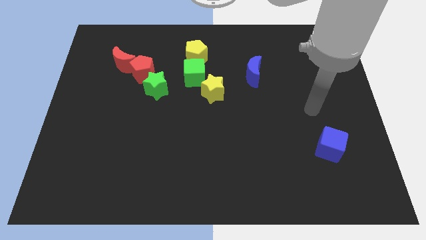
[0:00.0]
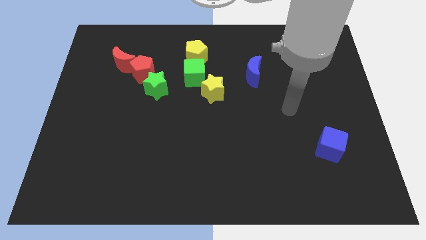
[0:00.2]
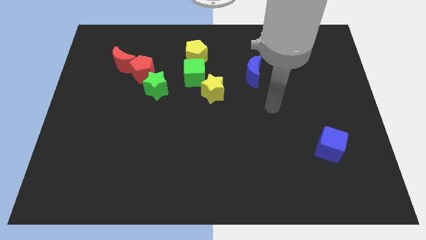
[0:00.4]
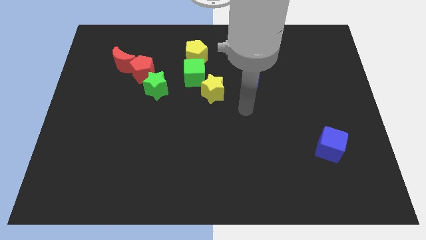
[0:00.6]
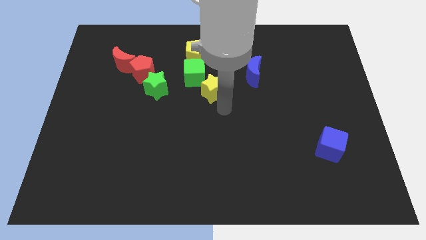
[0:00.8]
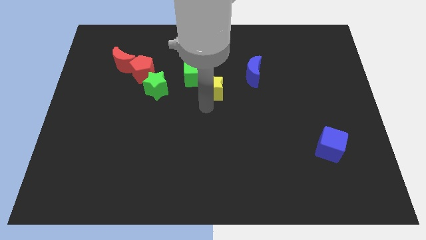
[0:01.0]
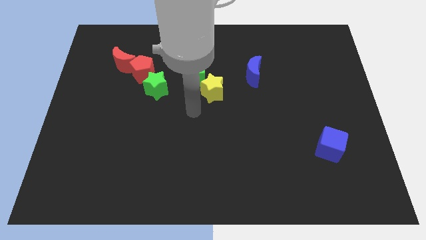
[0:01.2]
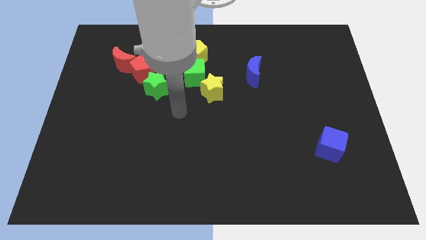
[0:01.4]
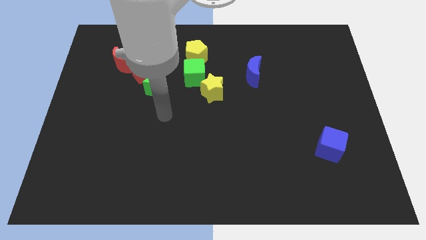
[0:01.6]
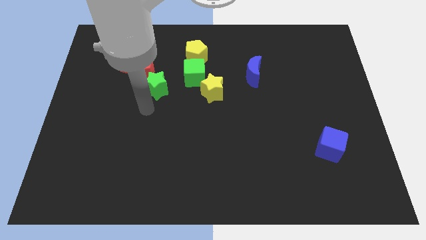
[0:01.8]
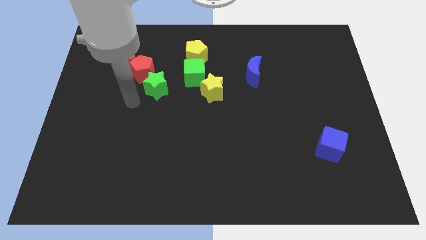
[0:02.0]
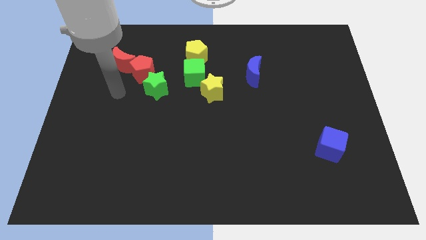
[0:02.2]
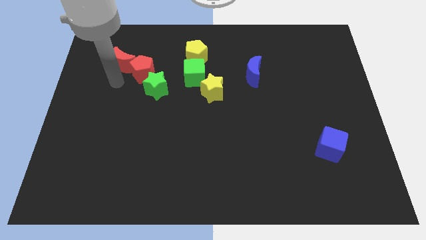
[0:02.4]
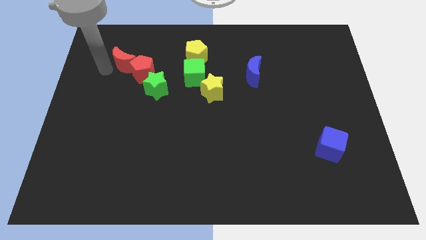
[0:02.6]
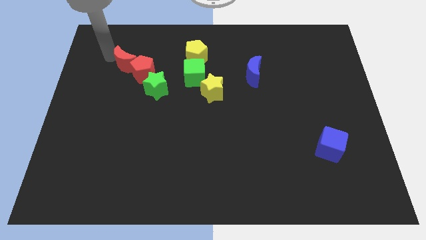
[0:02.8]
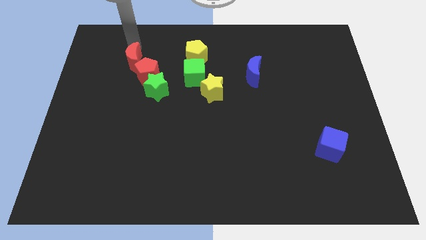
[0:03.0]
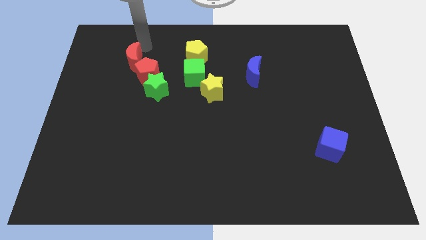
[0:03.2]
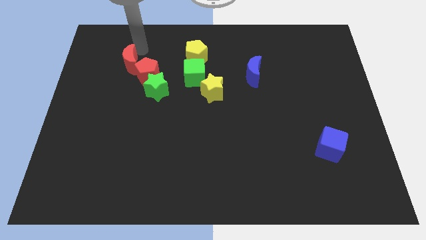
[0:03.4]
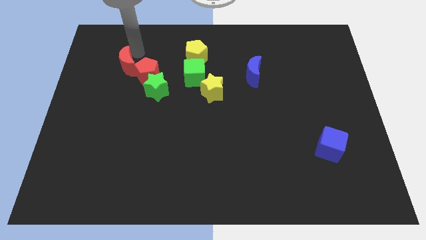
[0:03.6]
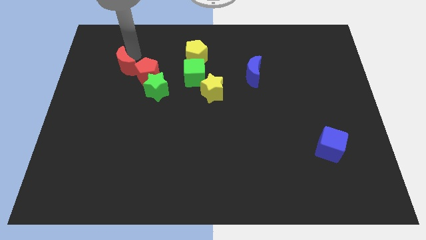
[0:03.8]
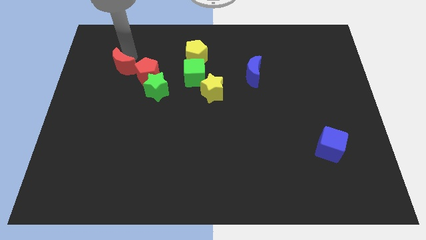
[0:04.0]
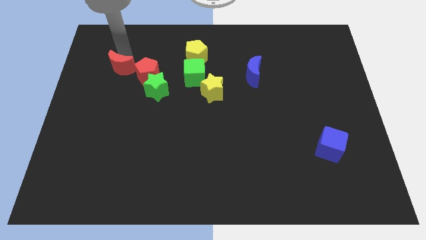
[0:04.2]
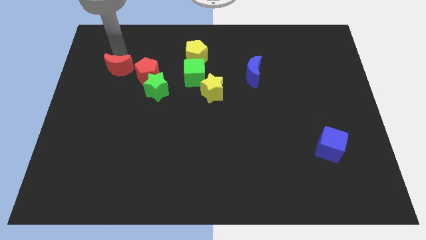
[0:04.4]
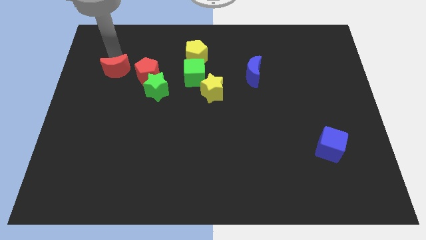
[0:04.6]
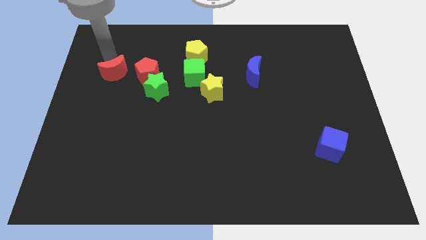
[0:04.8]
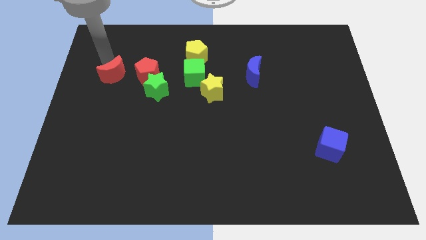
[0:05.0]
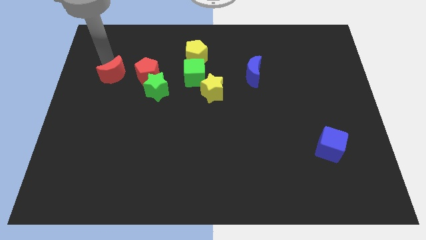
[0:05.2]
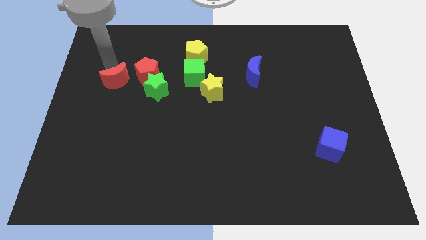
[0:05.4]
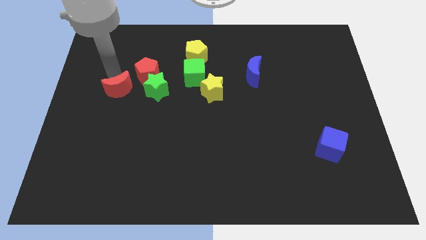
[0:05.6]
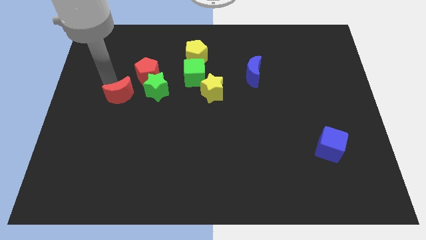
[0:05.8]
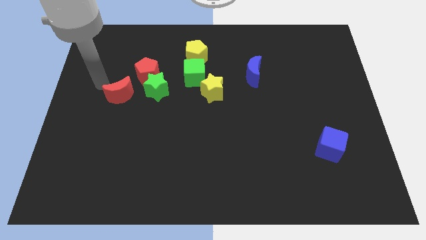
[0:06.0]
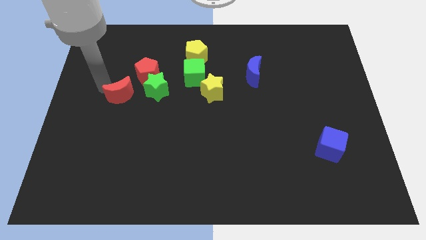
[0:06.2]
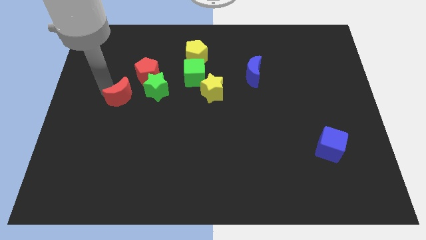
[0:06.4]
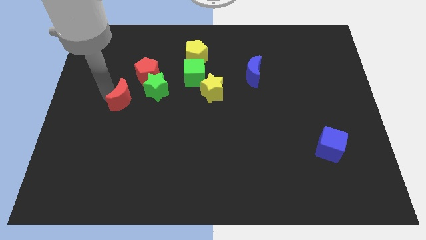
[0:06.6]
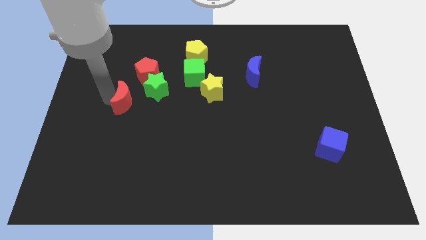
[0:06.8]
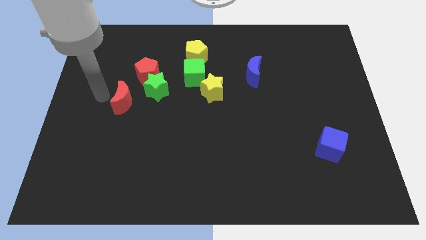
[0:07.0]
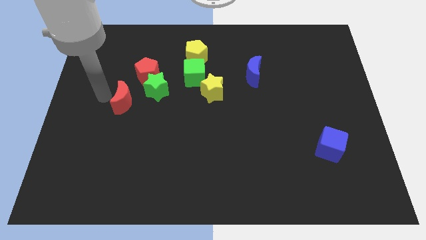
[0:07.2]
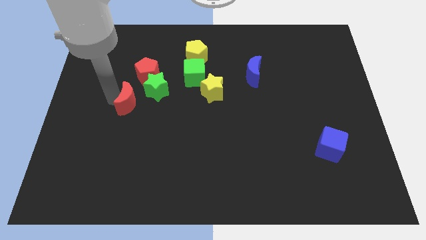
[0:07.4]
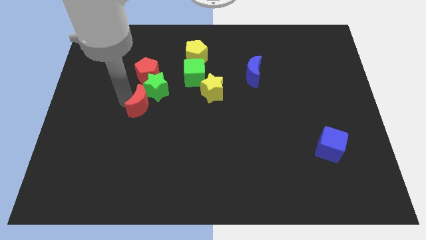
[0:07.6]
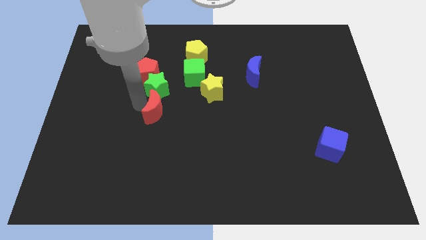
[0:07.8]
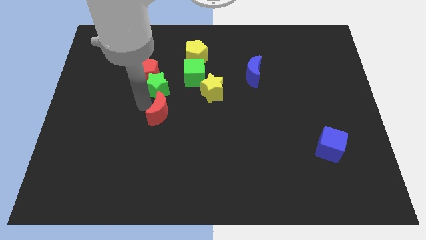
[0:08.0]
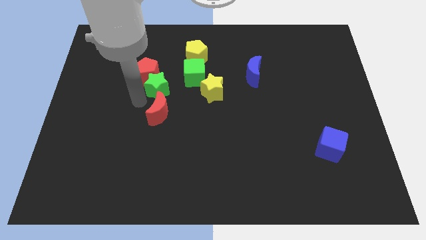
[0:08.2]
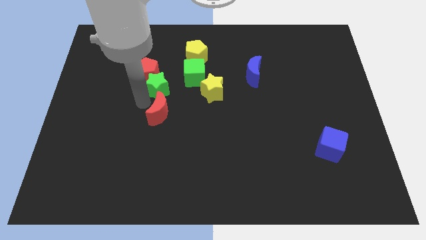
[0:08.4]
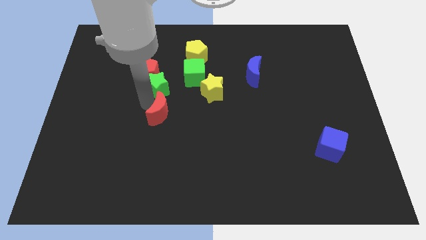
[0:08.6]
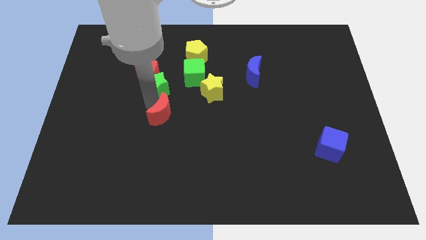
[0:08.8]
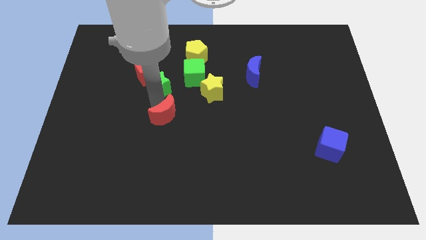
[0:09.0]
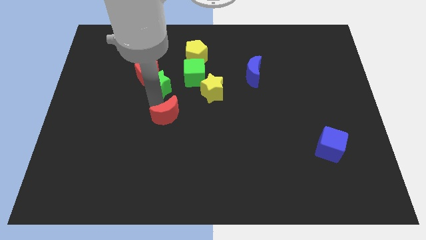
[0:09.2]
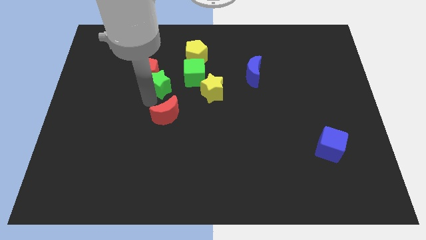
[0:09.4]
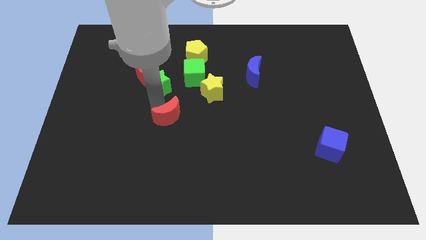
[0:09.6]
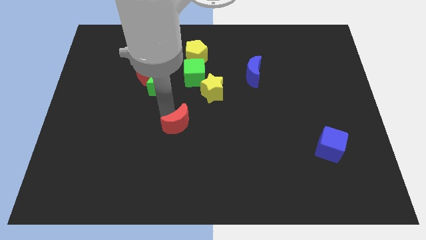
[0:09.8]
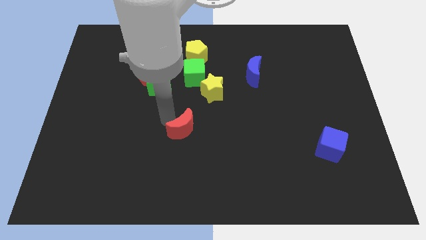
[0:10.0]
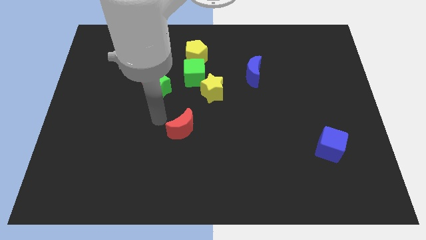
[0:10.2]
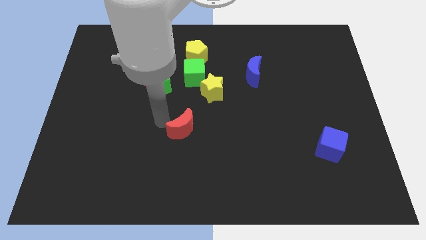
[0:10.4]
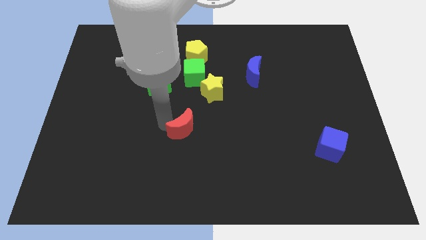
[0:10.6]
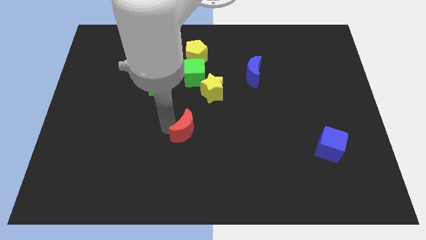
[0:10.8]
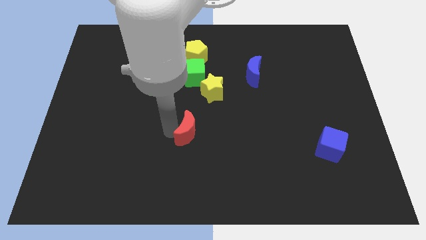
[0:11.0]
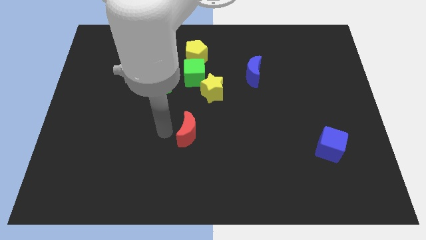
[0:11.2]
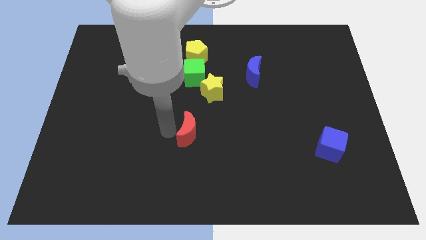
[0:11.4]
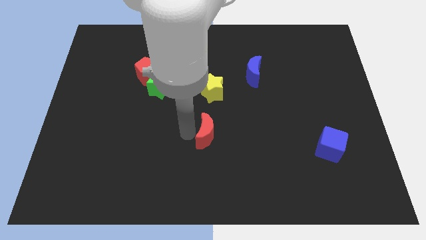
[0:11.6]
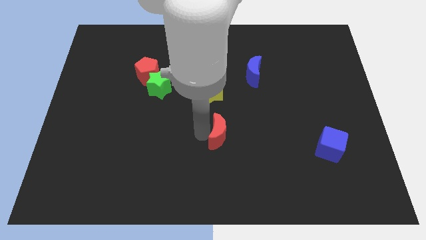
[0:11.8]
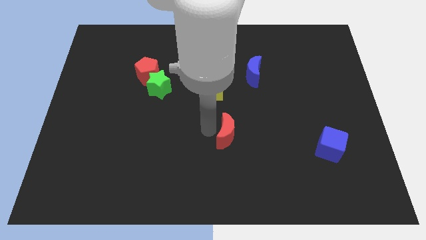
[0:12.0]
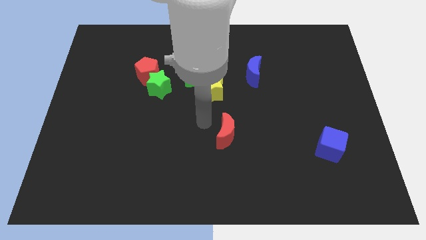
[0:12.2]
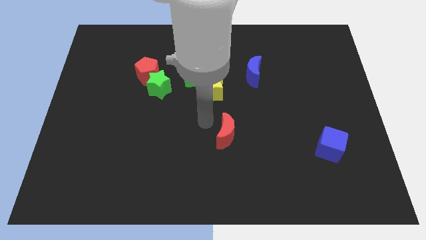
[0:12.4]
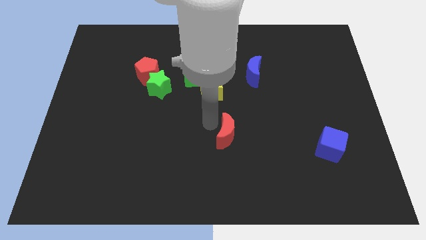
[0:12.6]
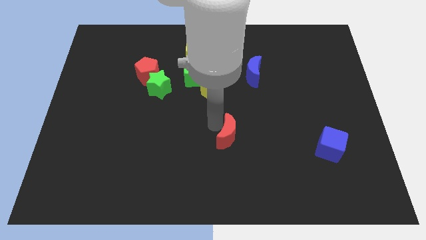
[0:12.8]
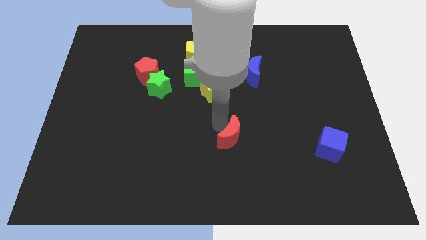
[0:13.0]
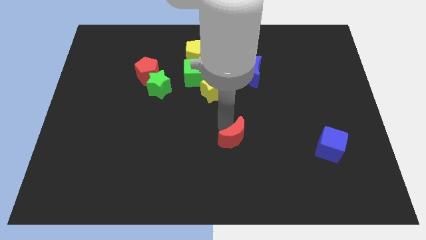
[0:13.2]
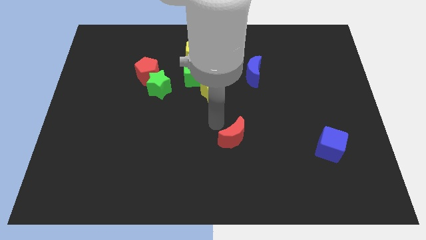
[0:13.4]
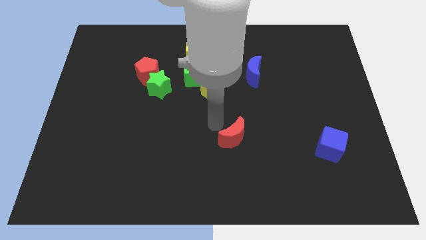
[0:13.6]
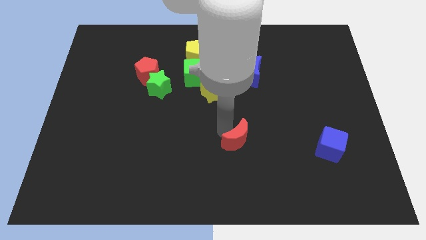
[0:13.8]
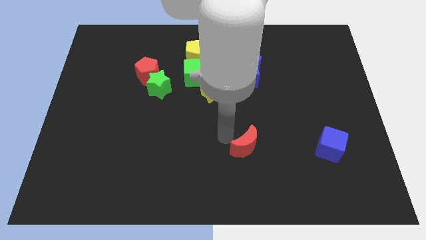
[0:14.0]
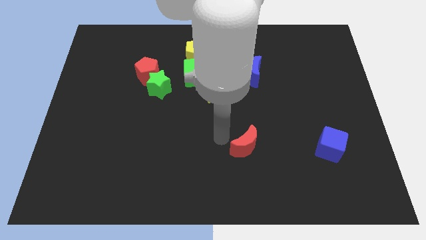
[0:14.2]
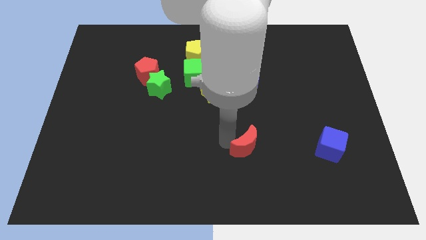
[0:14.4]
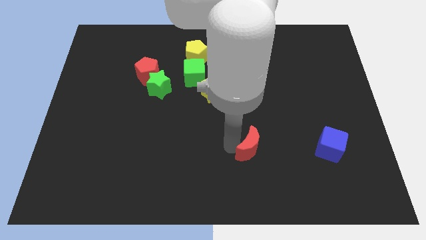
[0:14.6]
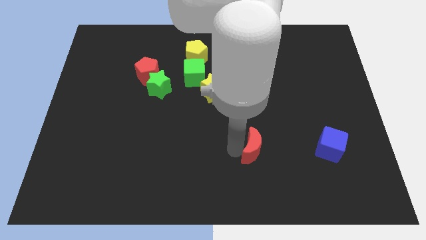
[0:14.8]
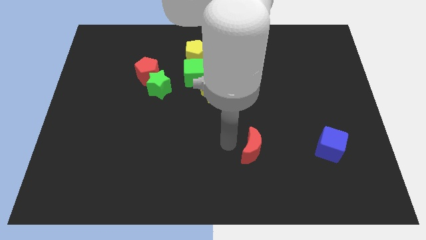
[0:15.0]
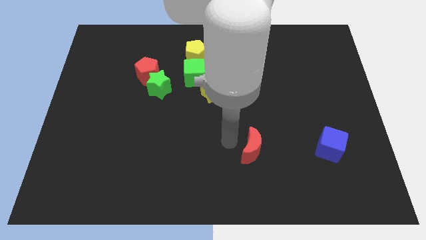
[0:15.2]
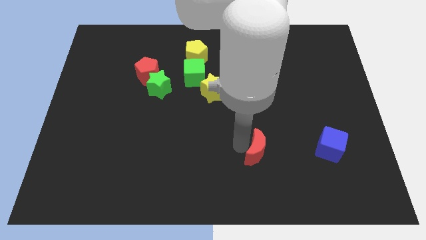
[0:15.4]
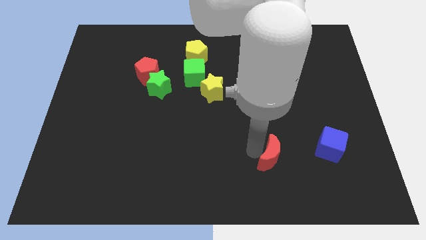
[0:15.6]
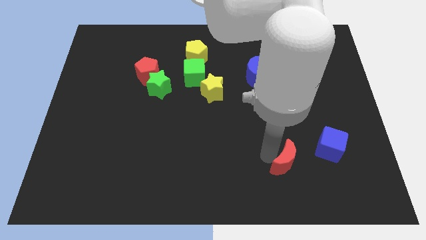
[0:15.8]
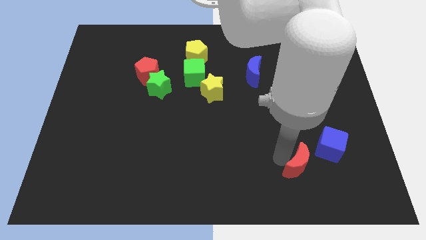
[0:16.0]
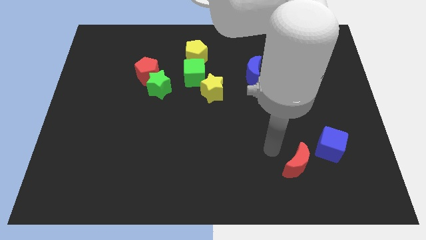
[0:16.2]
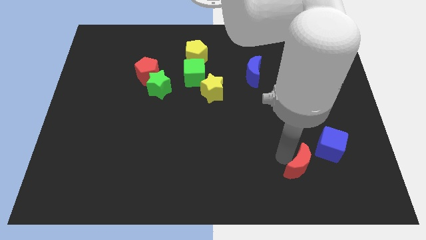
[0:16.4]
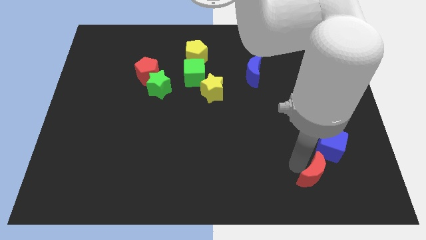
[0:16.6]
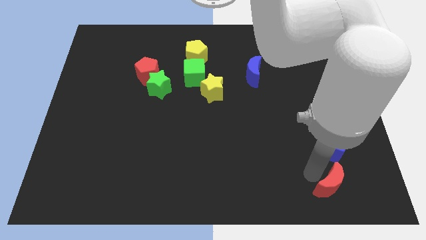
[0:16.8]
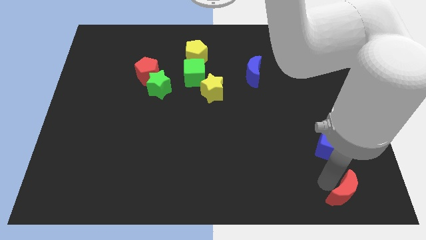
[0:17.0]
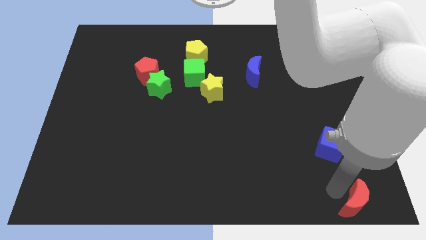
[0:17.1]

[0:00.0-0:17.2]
move the red moon to the lower right corner
